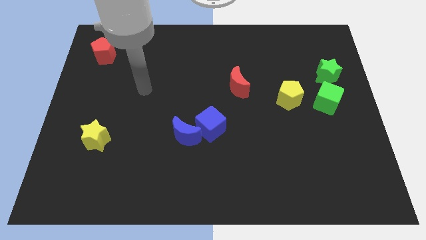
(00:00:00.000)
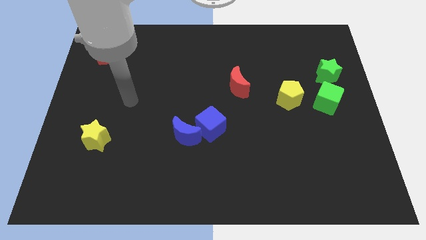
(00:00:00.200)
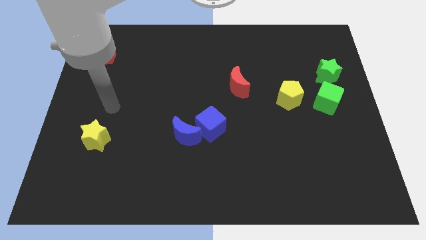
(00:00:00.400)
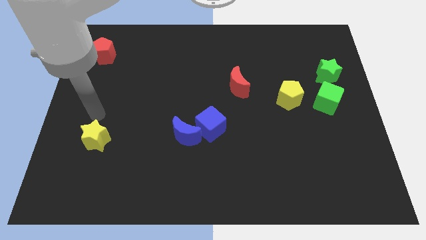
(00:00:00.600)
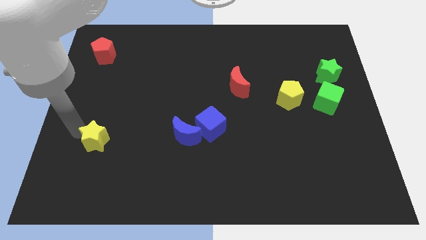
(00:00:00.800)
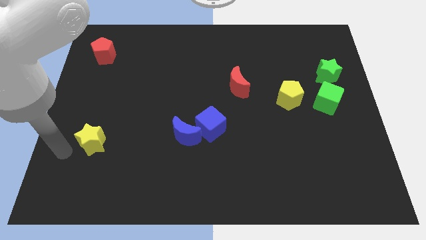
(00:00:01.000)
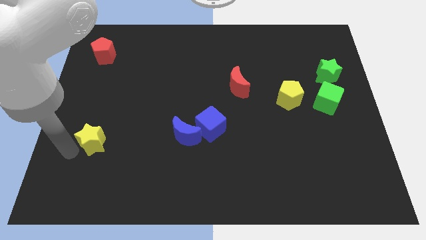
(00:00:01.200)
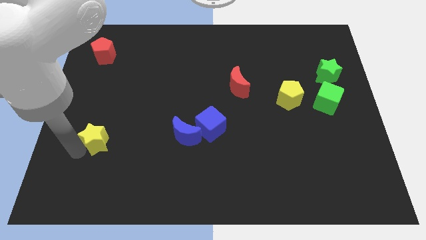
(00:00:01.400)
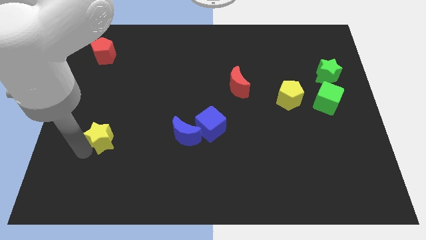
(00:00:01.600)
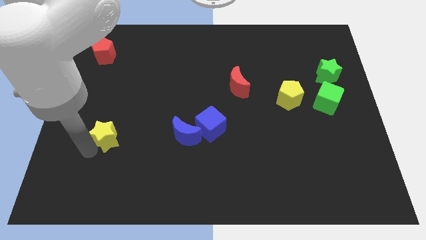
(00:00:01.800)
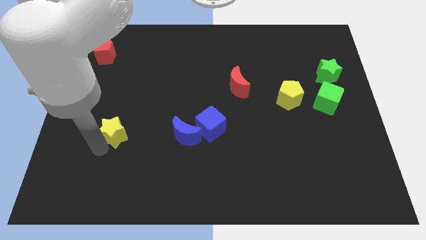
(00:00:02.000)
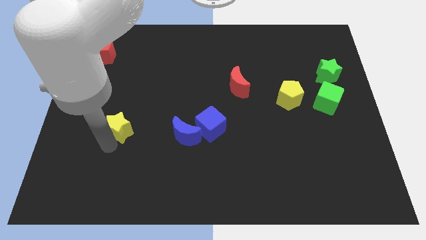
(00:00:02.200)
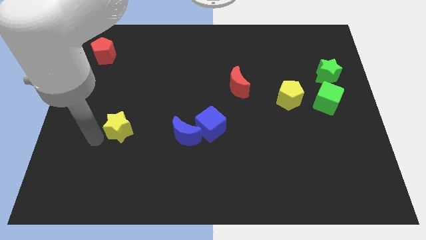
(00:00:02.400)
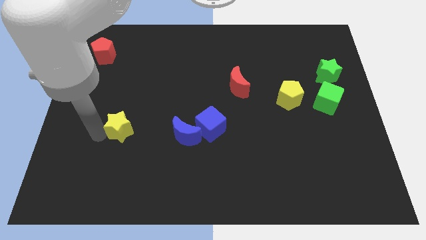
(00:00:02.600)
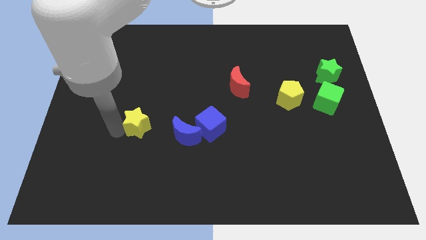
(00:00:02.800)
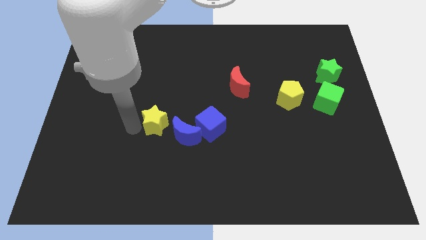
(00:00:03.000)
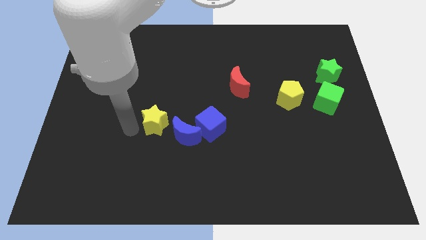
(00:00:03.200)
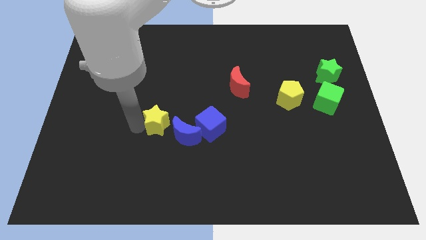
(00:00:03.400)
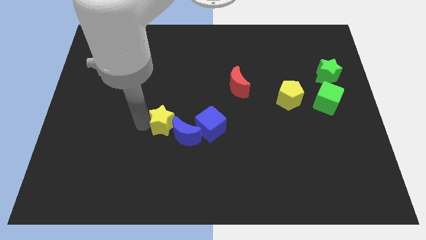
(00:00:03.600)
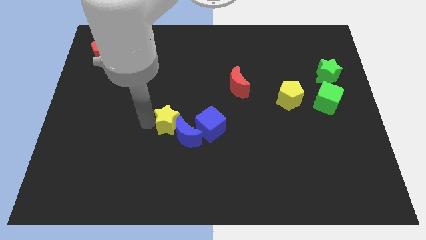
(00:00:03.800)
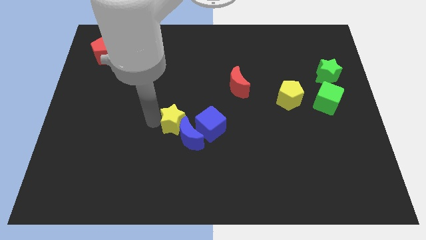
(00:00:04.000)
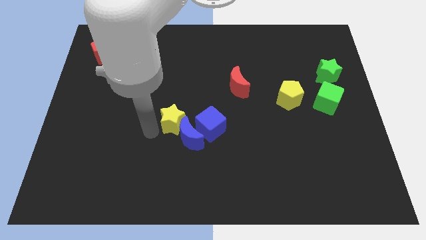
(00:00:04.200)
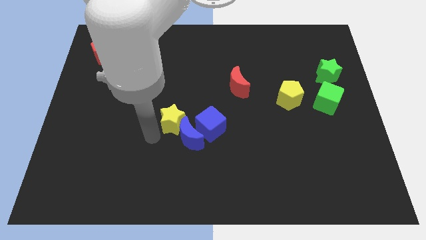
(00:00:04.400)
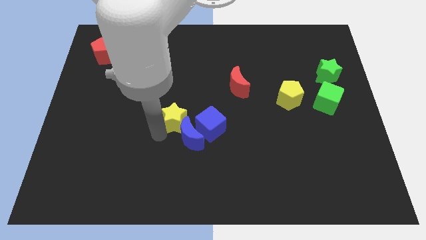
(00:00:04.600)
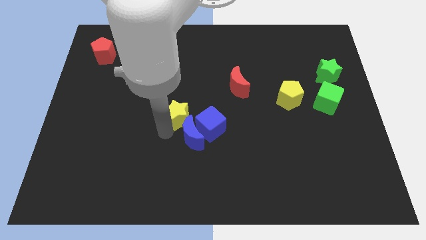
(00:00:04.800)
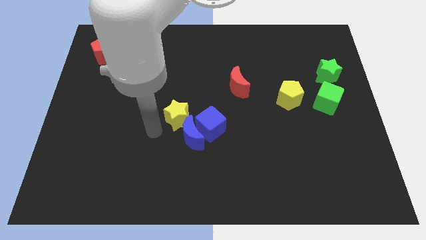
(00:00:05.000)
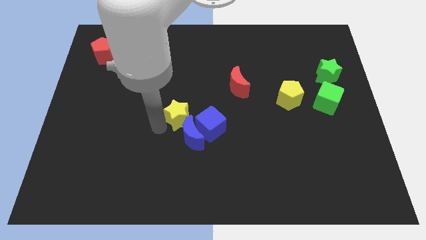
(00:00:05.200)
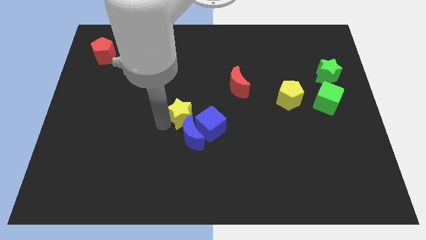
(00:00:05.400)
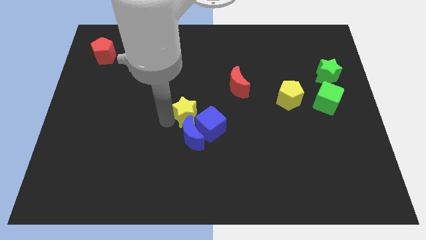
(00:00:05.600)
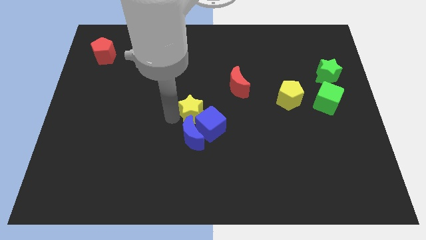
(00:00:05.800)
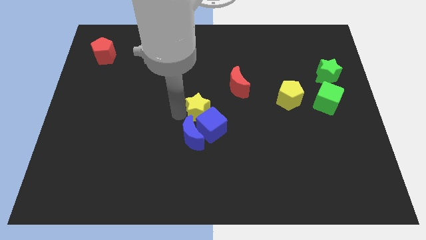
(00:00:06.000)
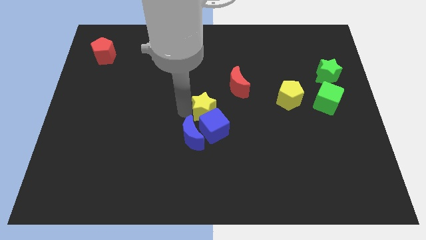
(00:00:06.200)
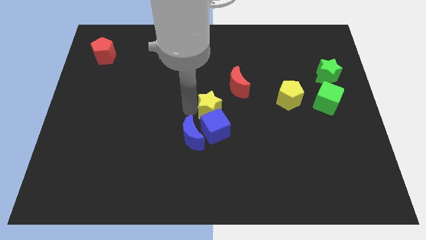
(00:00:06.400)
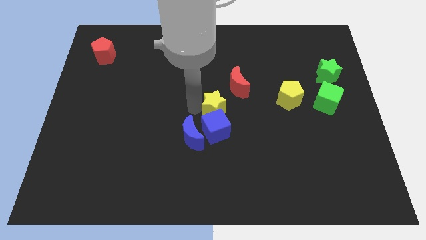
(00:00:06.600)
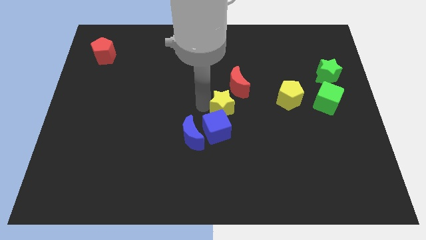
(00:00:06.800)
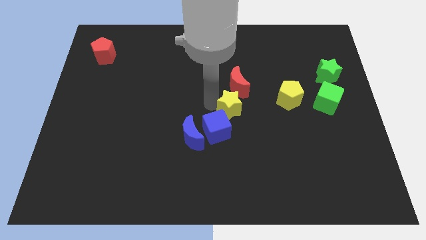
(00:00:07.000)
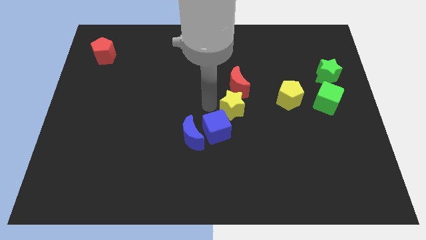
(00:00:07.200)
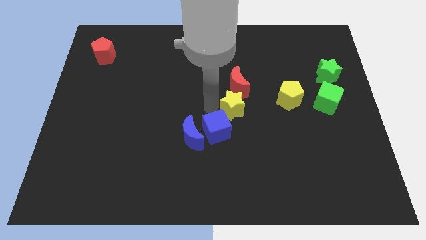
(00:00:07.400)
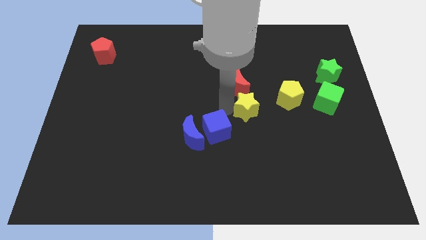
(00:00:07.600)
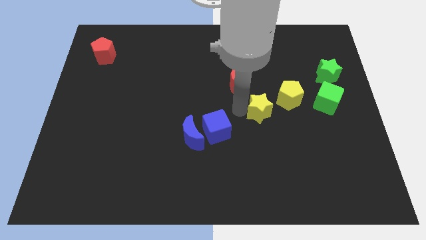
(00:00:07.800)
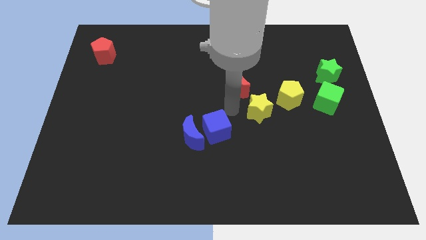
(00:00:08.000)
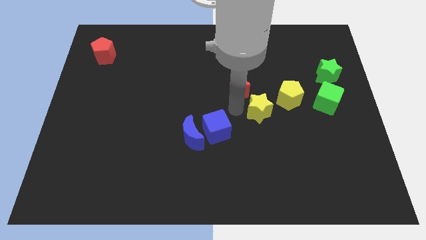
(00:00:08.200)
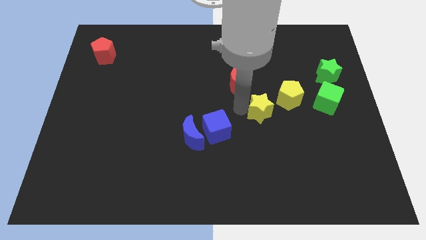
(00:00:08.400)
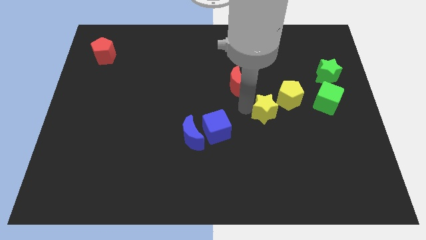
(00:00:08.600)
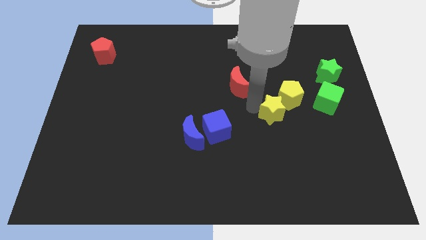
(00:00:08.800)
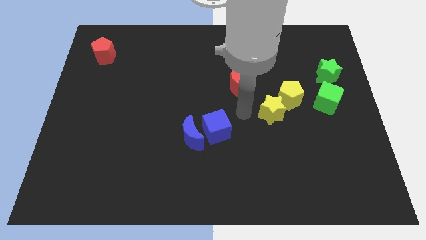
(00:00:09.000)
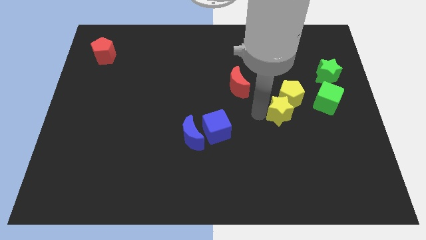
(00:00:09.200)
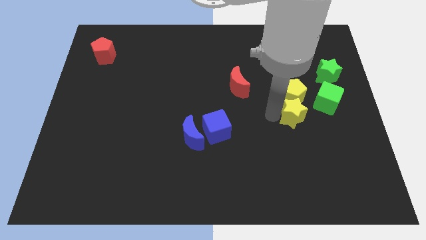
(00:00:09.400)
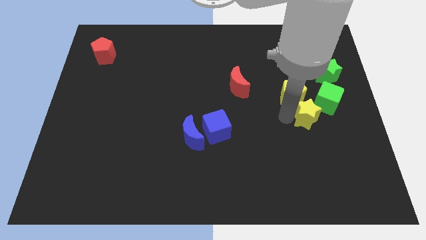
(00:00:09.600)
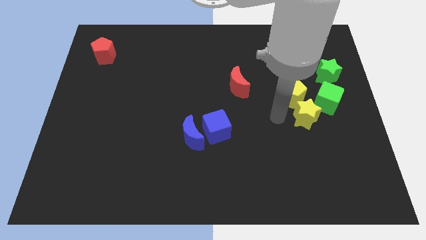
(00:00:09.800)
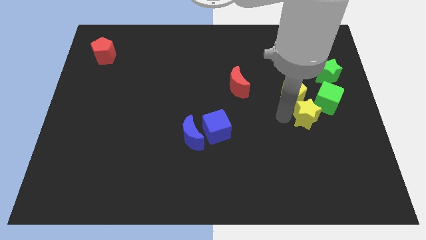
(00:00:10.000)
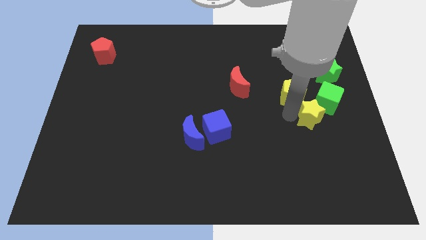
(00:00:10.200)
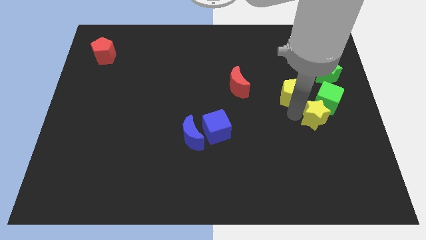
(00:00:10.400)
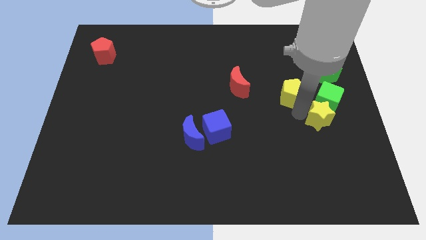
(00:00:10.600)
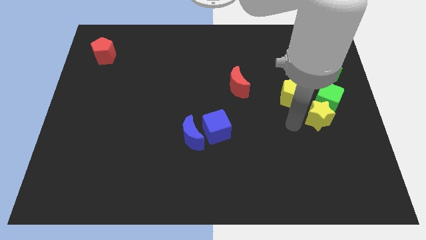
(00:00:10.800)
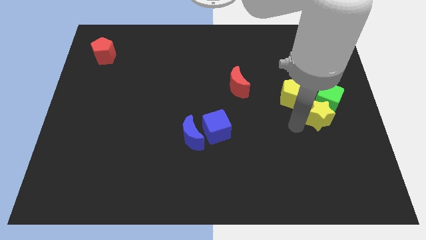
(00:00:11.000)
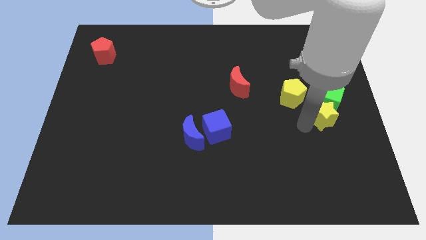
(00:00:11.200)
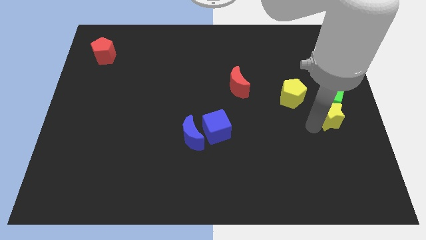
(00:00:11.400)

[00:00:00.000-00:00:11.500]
slide the yellow star to the right side
